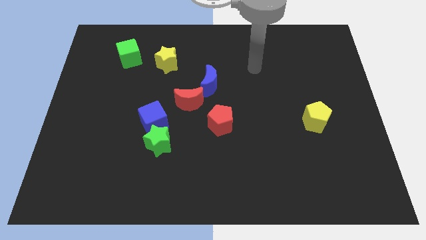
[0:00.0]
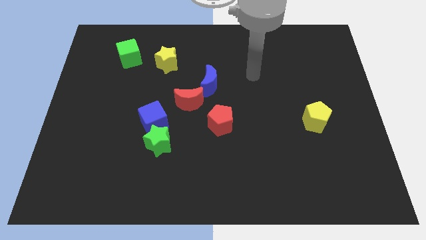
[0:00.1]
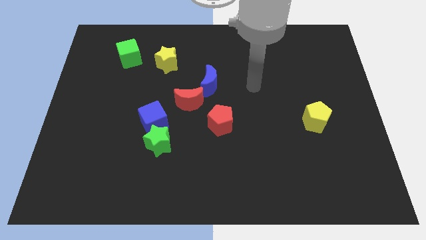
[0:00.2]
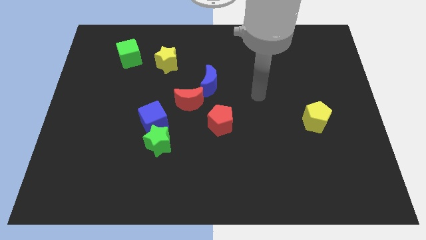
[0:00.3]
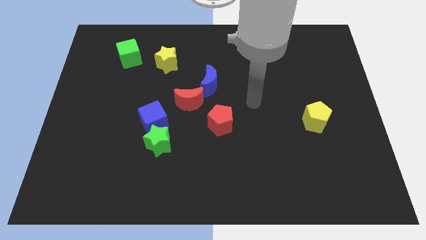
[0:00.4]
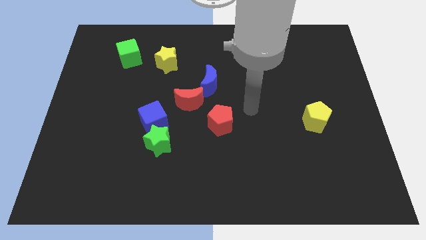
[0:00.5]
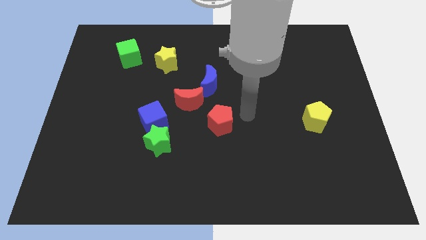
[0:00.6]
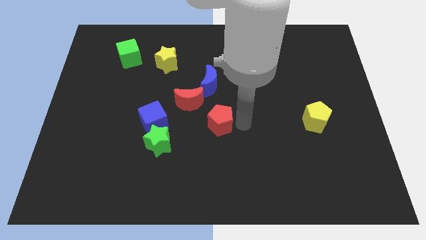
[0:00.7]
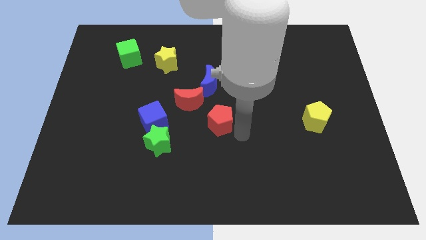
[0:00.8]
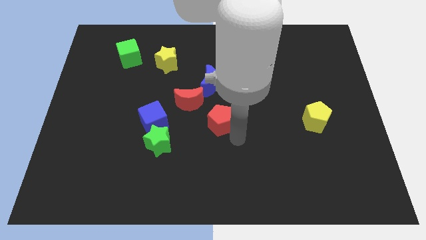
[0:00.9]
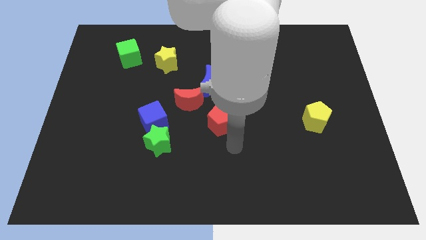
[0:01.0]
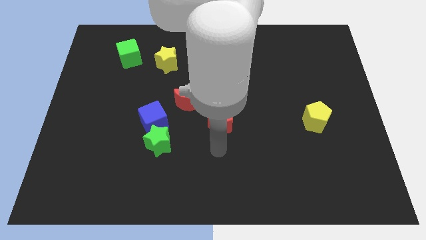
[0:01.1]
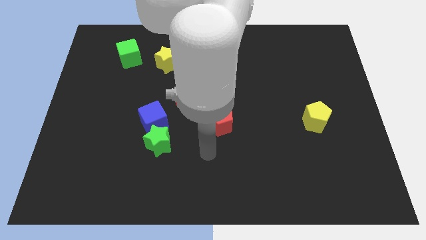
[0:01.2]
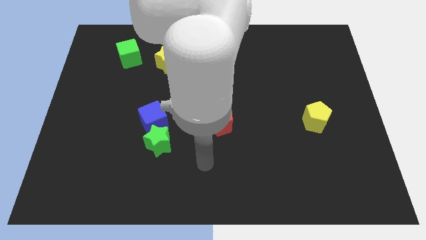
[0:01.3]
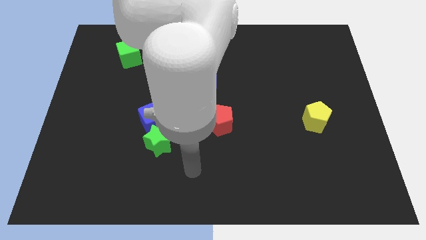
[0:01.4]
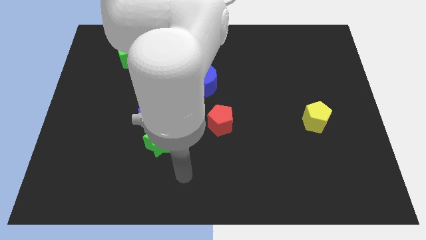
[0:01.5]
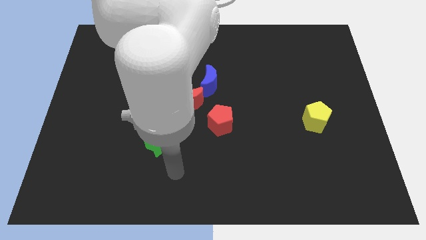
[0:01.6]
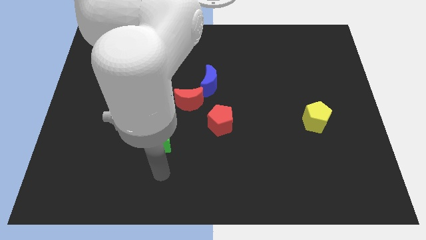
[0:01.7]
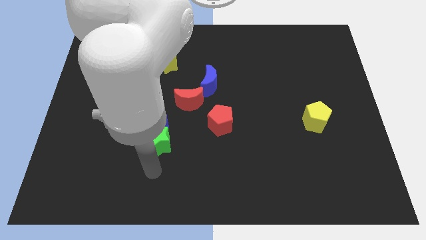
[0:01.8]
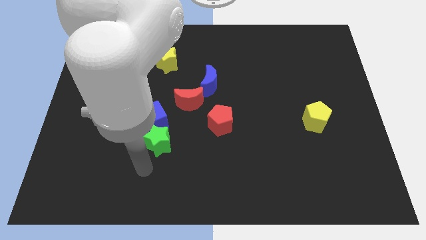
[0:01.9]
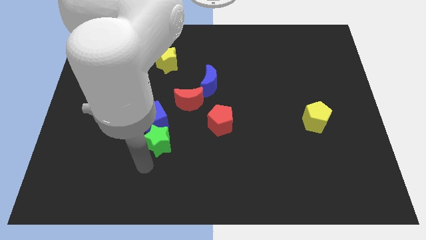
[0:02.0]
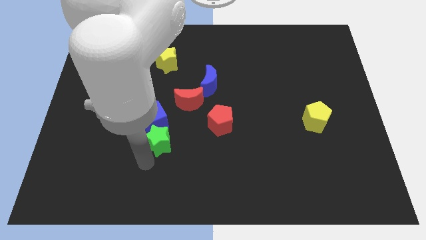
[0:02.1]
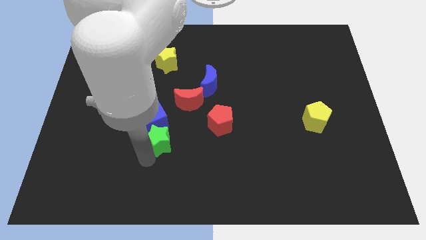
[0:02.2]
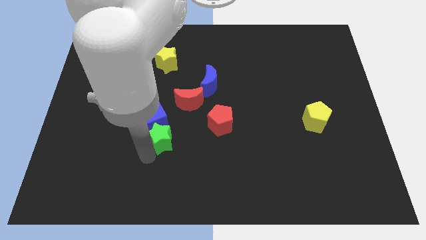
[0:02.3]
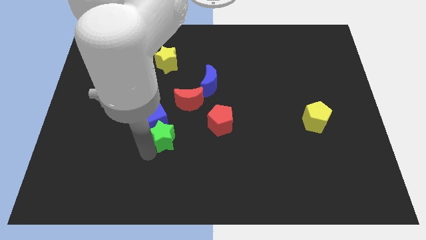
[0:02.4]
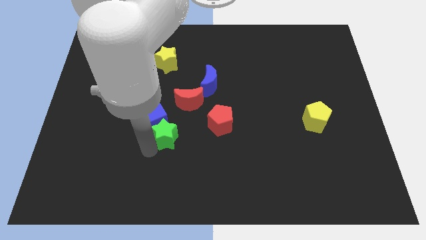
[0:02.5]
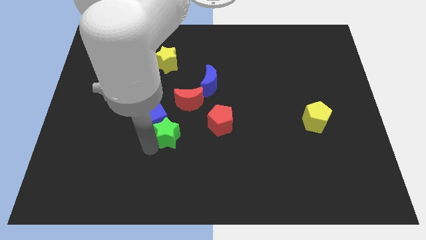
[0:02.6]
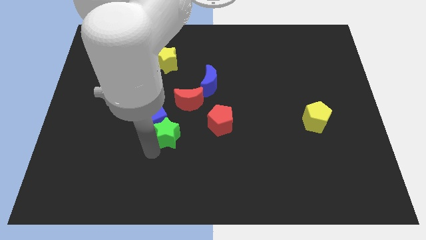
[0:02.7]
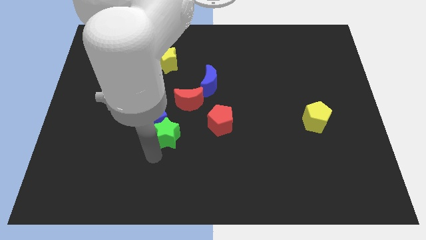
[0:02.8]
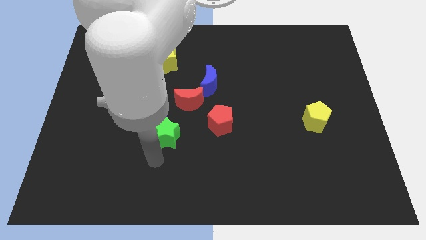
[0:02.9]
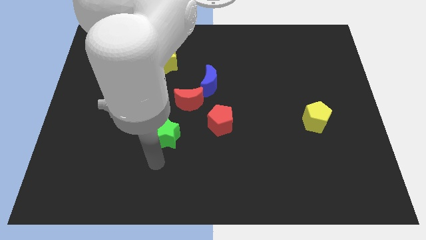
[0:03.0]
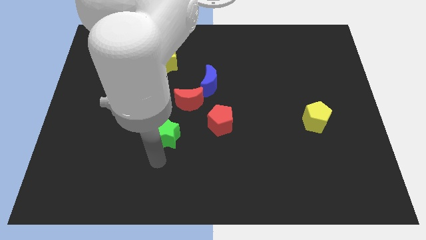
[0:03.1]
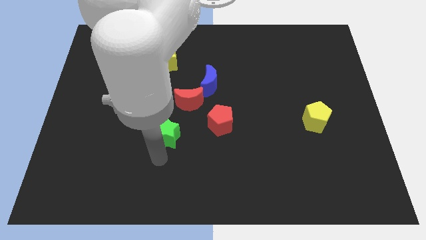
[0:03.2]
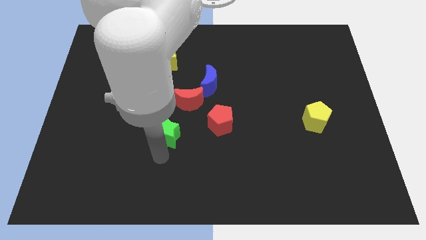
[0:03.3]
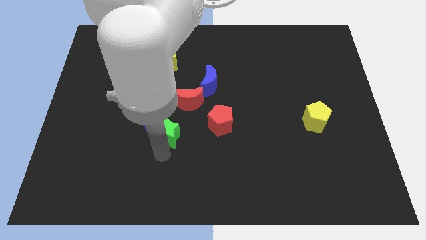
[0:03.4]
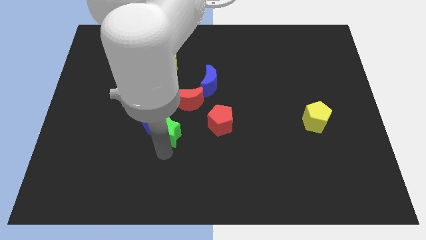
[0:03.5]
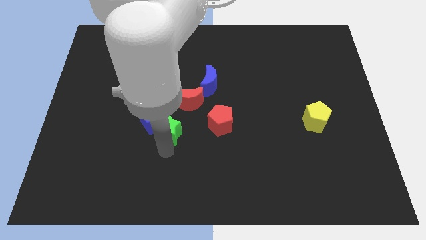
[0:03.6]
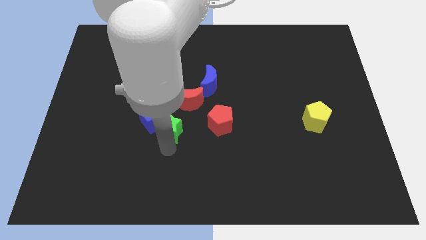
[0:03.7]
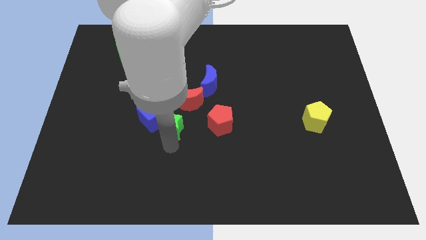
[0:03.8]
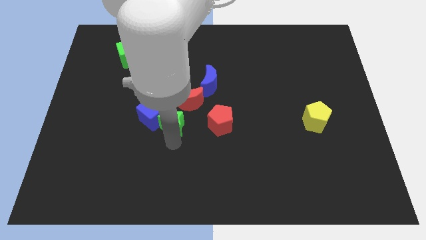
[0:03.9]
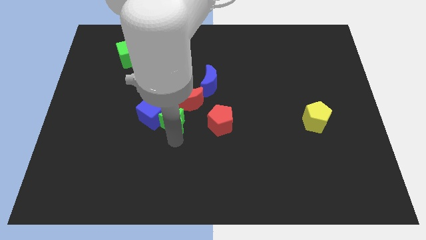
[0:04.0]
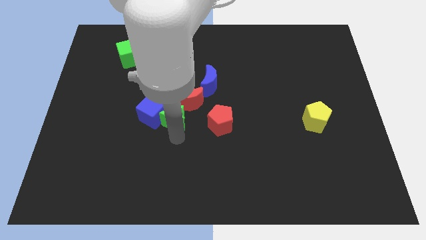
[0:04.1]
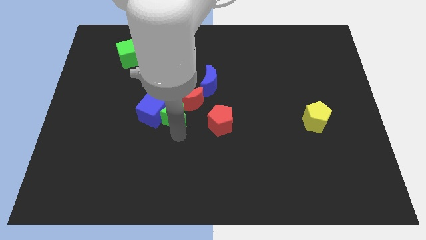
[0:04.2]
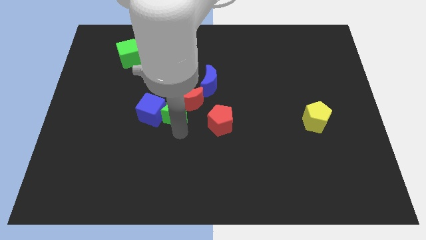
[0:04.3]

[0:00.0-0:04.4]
push the green star just left of the red moon

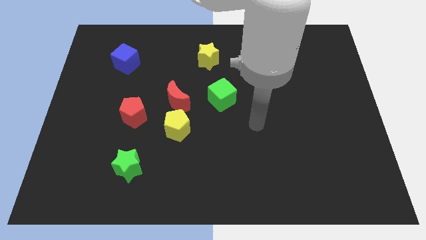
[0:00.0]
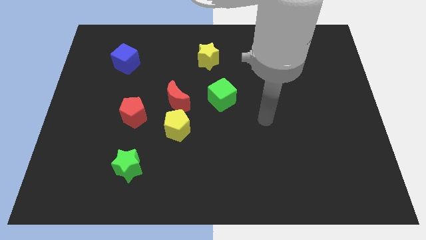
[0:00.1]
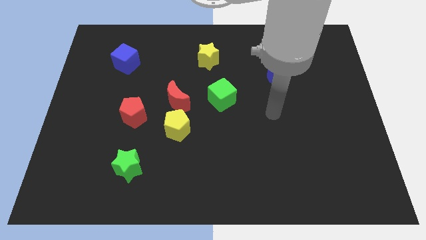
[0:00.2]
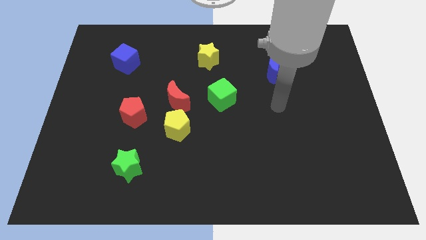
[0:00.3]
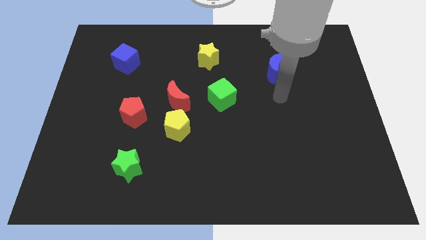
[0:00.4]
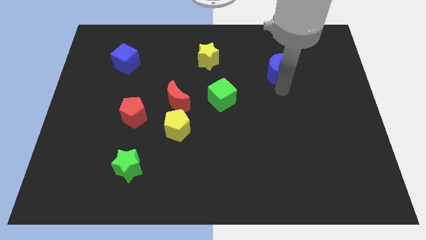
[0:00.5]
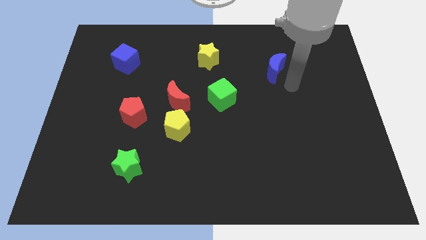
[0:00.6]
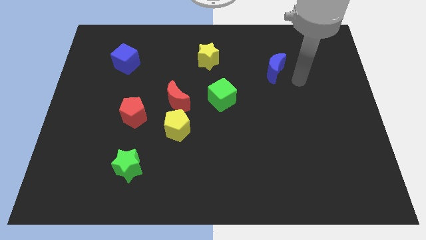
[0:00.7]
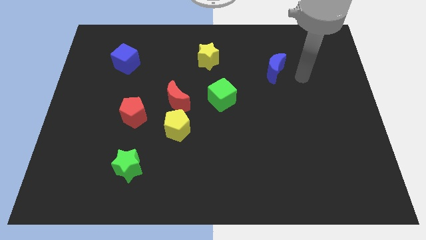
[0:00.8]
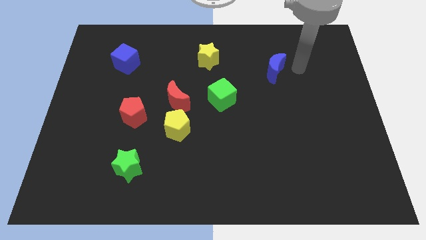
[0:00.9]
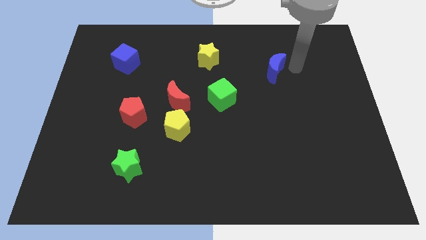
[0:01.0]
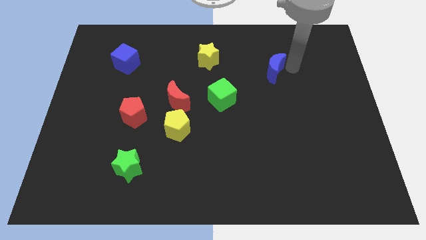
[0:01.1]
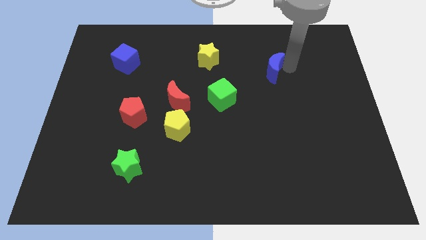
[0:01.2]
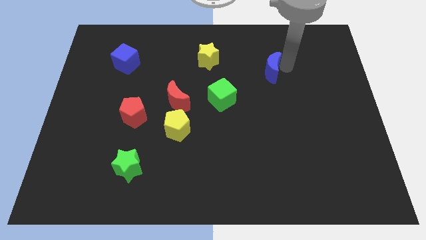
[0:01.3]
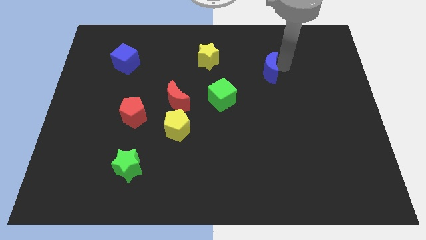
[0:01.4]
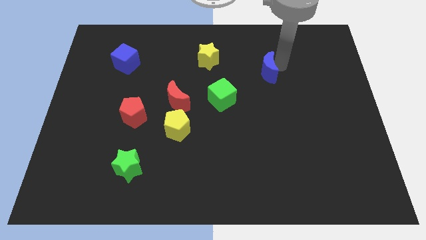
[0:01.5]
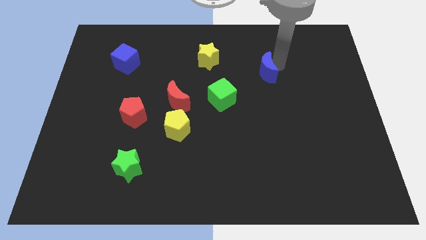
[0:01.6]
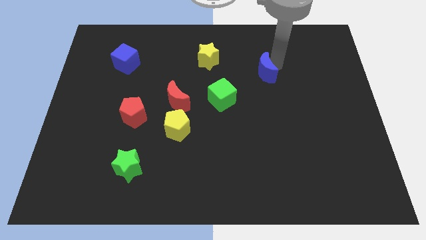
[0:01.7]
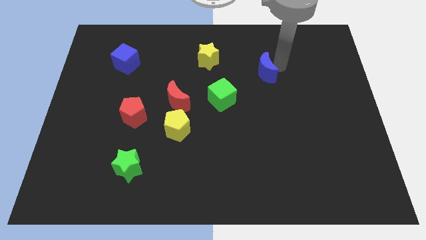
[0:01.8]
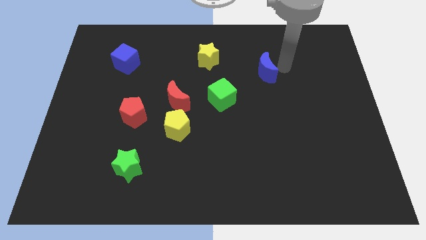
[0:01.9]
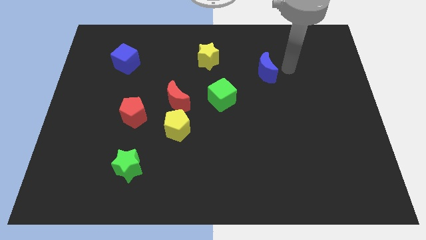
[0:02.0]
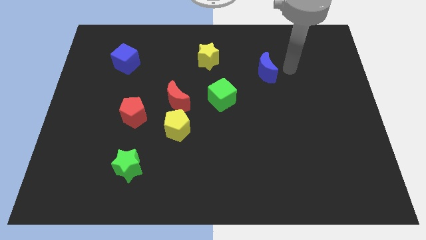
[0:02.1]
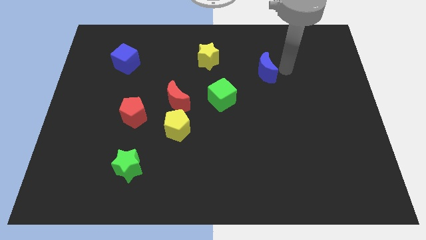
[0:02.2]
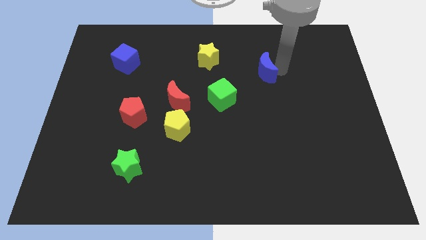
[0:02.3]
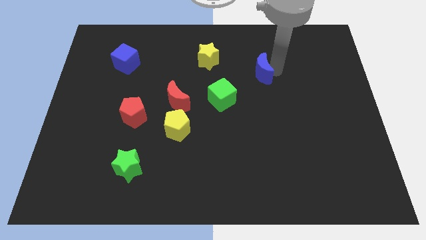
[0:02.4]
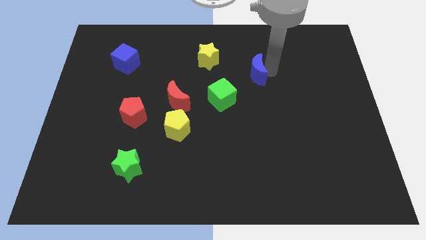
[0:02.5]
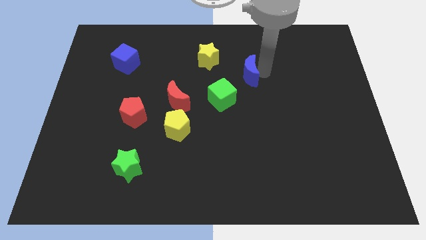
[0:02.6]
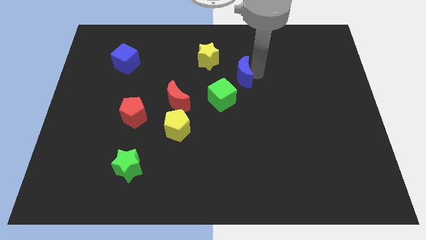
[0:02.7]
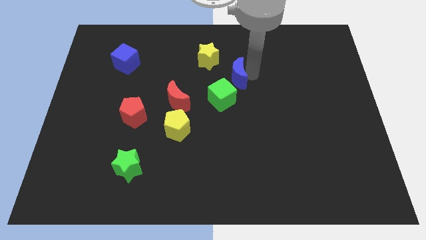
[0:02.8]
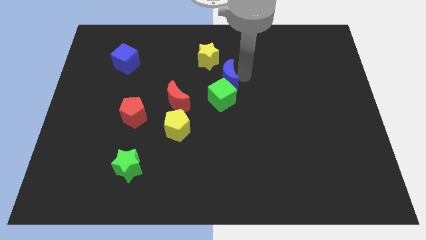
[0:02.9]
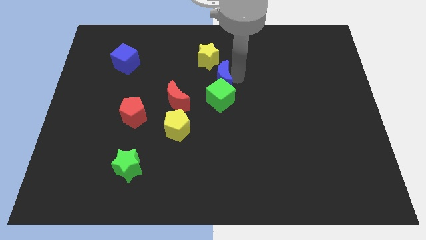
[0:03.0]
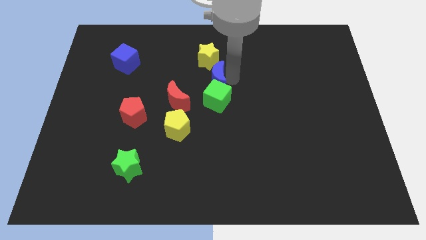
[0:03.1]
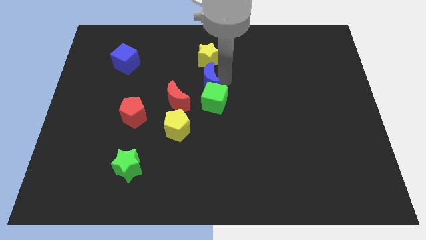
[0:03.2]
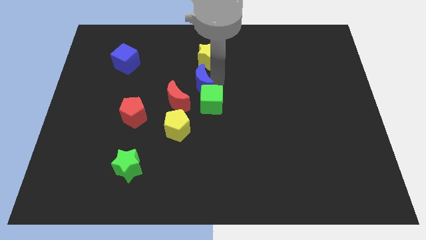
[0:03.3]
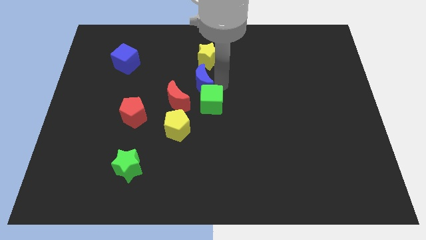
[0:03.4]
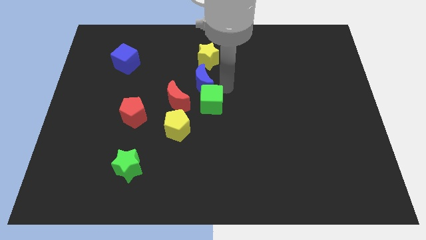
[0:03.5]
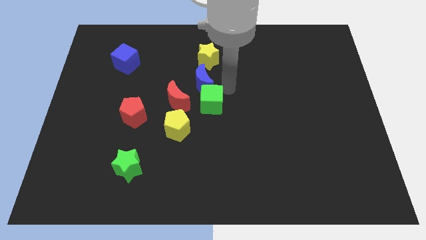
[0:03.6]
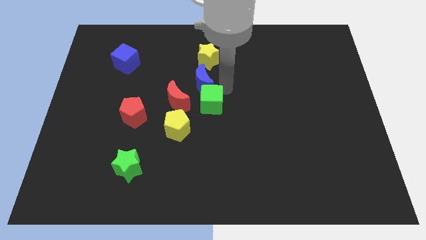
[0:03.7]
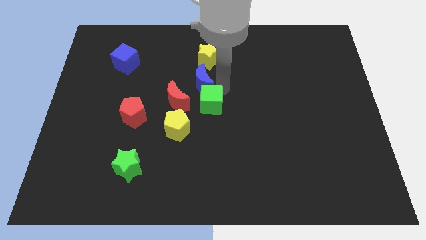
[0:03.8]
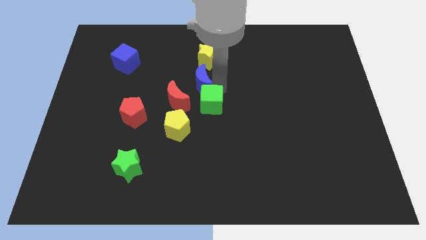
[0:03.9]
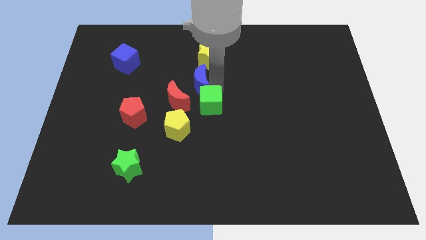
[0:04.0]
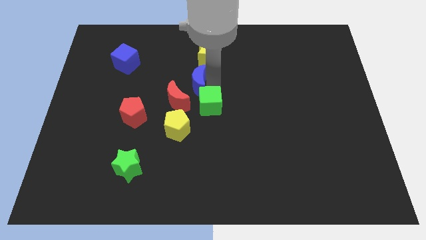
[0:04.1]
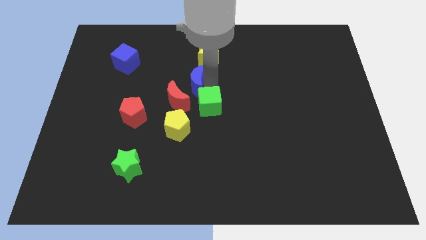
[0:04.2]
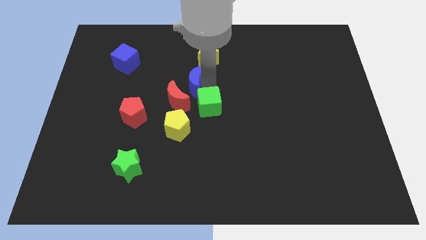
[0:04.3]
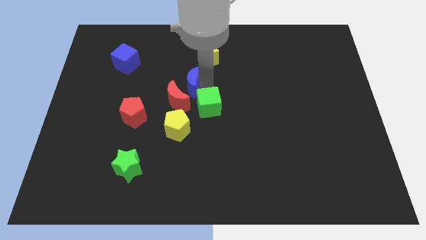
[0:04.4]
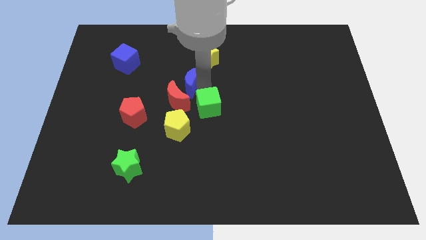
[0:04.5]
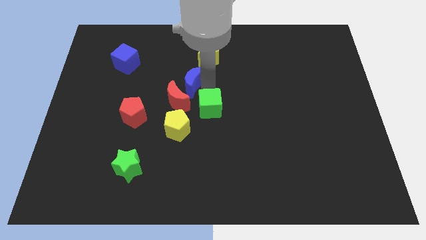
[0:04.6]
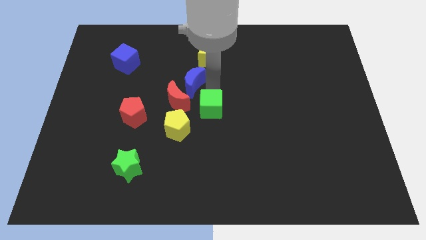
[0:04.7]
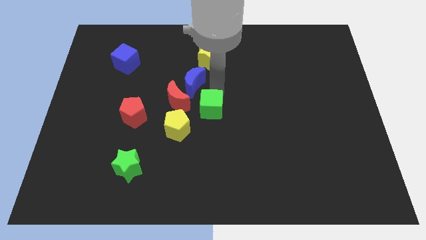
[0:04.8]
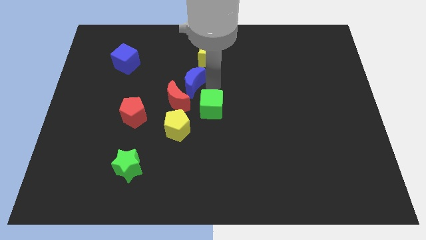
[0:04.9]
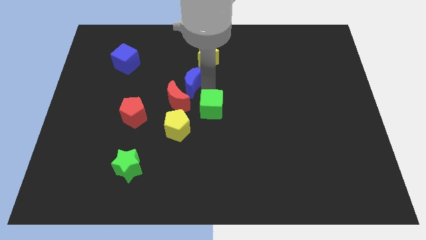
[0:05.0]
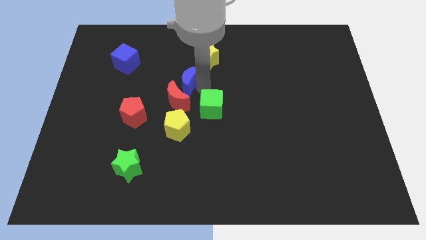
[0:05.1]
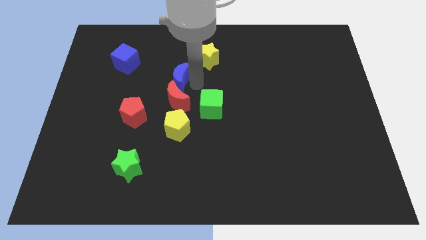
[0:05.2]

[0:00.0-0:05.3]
push the blue moon to the top left of the red moon
